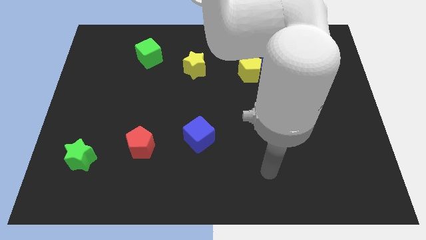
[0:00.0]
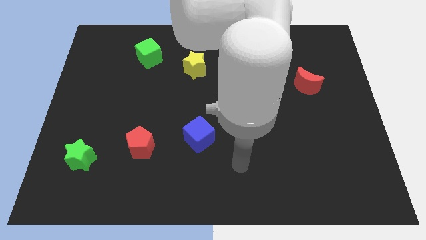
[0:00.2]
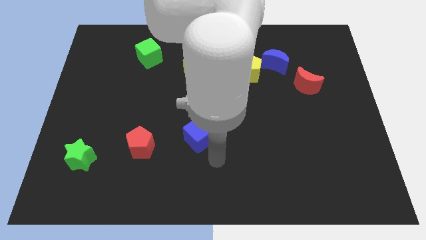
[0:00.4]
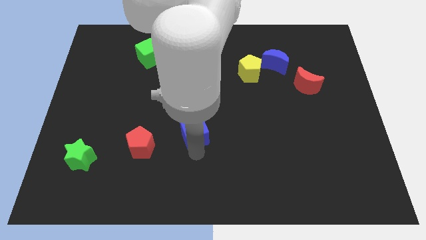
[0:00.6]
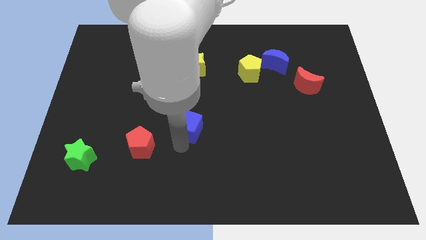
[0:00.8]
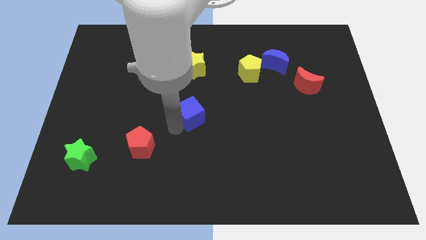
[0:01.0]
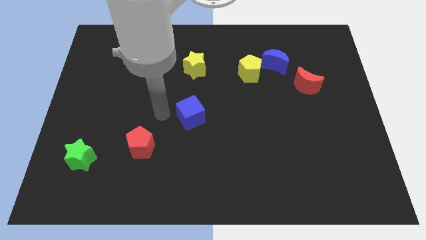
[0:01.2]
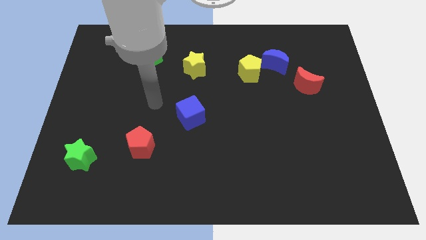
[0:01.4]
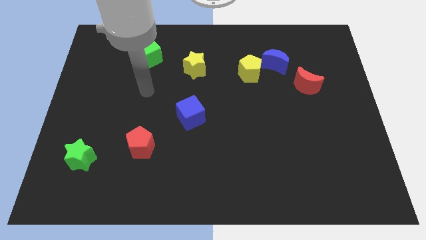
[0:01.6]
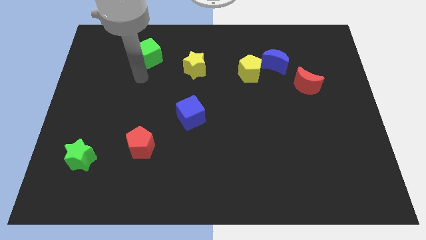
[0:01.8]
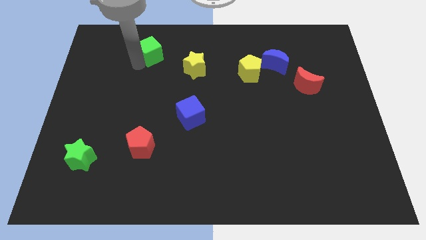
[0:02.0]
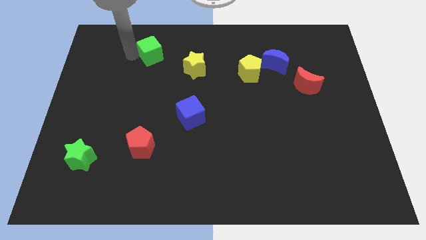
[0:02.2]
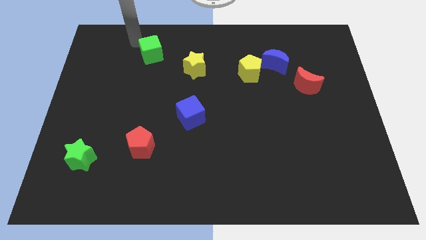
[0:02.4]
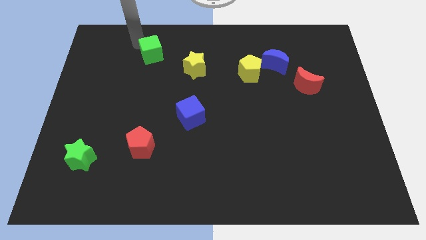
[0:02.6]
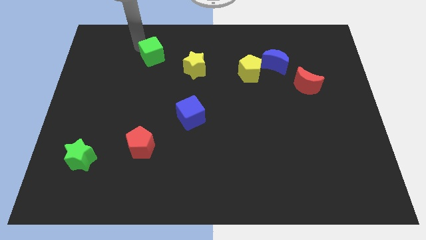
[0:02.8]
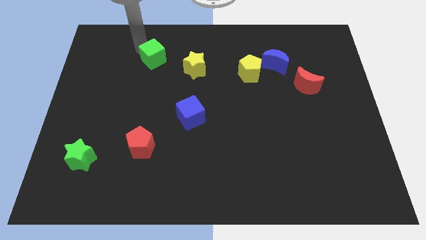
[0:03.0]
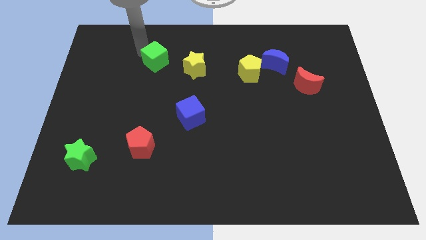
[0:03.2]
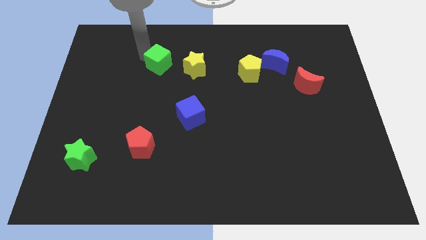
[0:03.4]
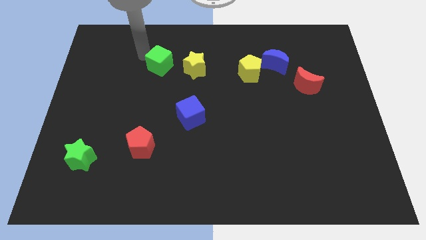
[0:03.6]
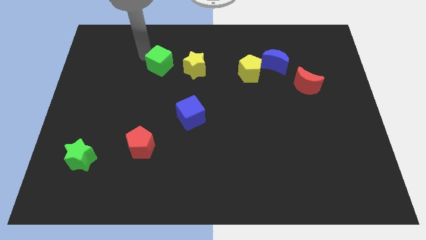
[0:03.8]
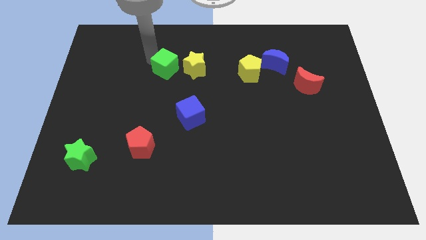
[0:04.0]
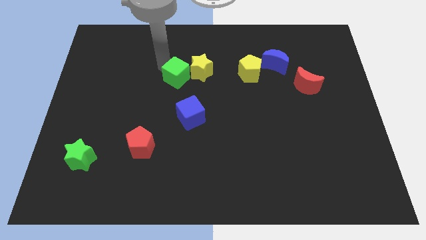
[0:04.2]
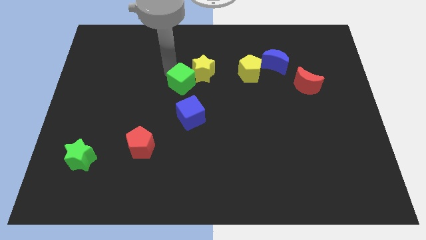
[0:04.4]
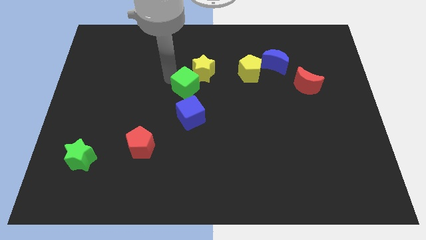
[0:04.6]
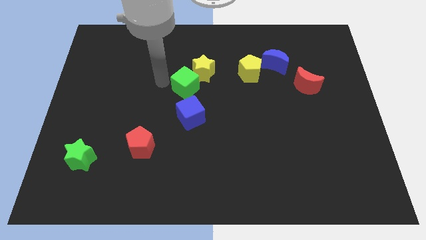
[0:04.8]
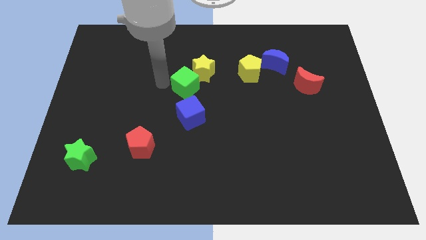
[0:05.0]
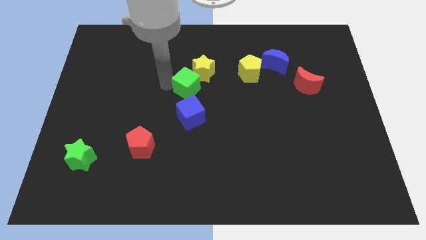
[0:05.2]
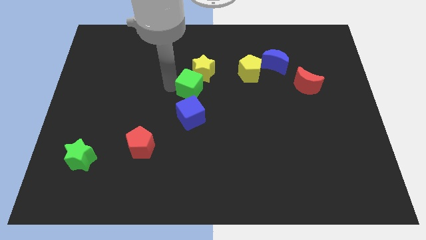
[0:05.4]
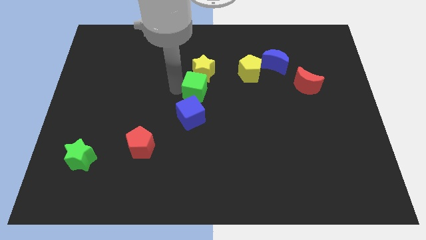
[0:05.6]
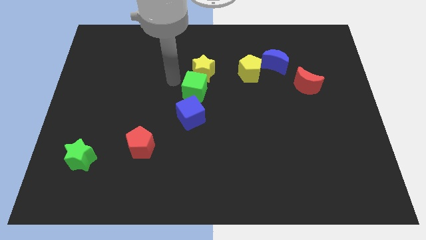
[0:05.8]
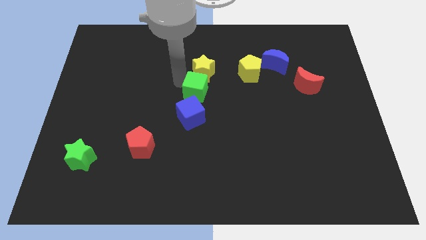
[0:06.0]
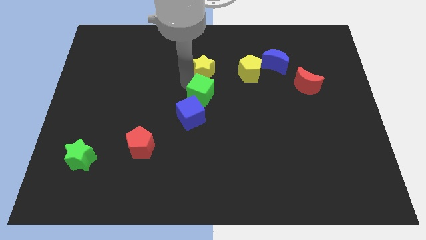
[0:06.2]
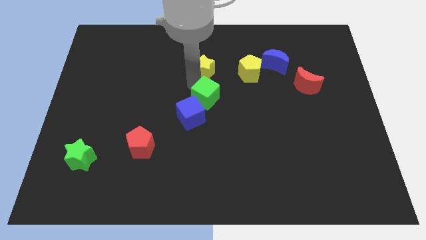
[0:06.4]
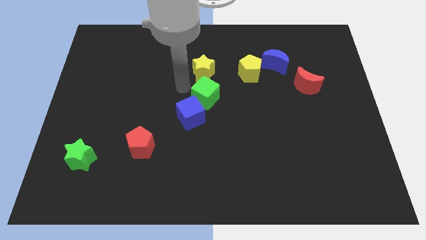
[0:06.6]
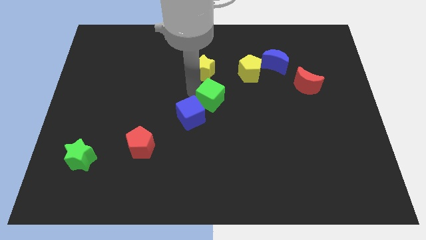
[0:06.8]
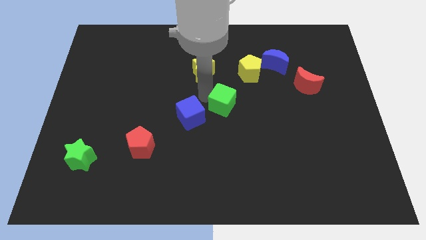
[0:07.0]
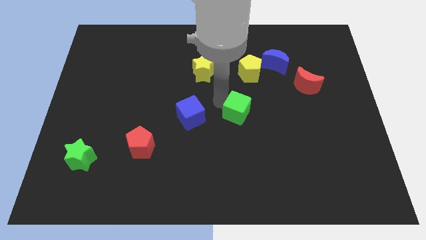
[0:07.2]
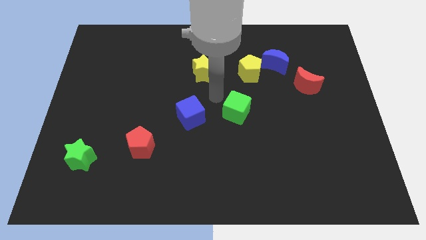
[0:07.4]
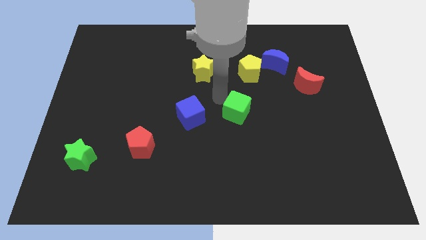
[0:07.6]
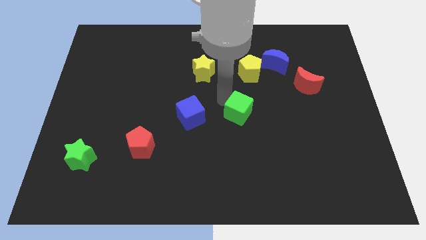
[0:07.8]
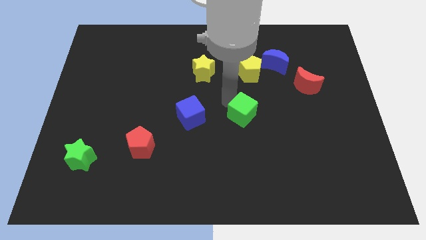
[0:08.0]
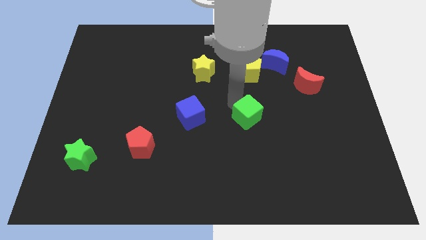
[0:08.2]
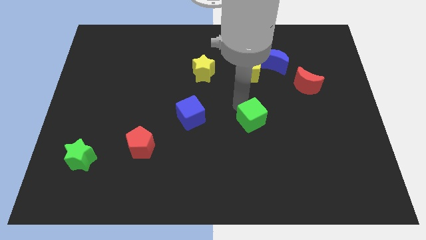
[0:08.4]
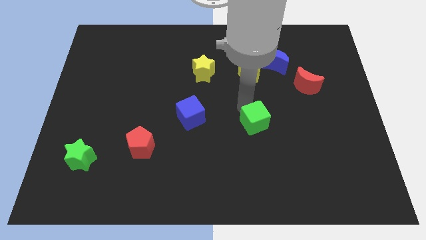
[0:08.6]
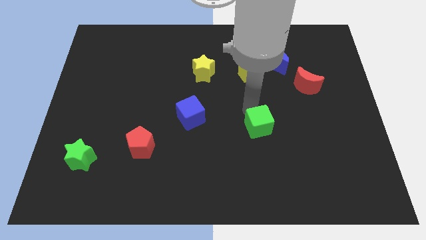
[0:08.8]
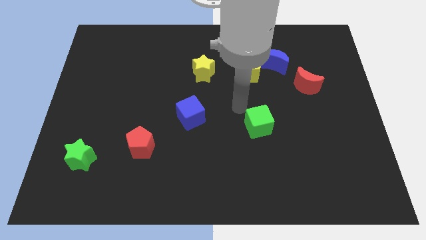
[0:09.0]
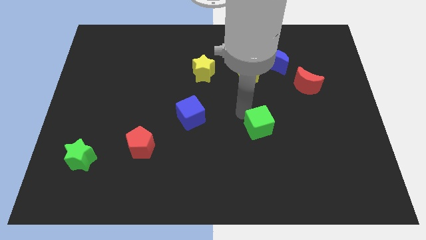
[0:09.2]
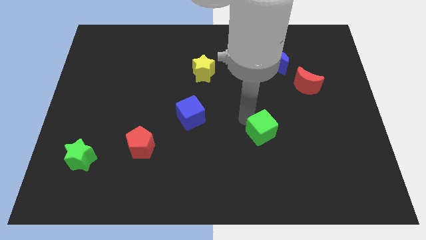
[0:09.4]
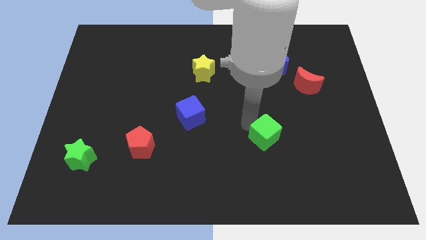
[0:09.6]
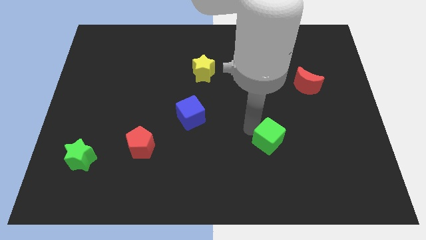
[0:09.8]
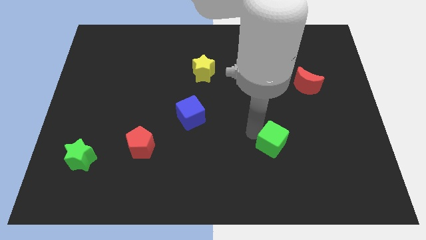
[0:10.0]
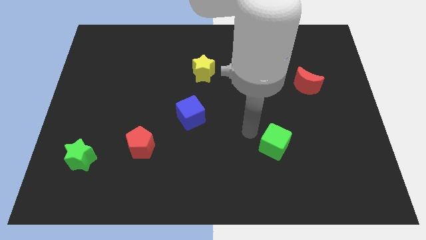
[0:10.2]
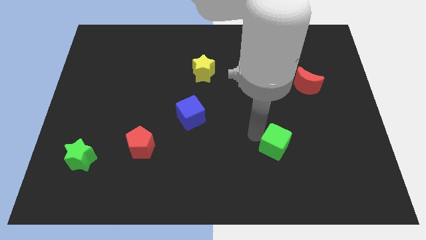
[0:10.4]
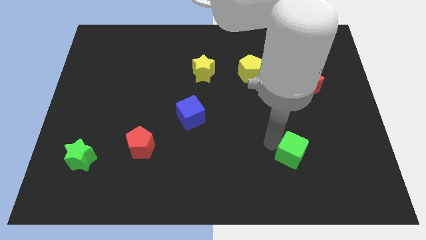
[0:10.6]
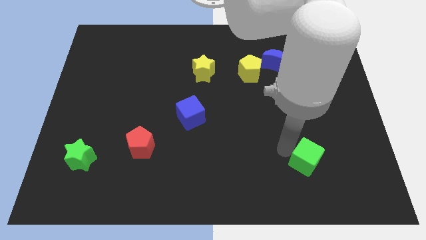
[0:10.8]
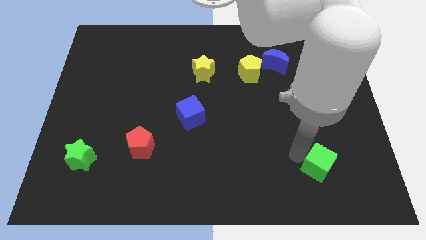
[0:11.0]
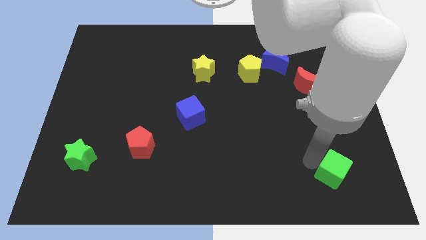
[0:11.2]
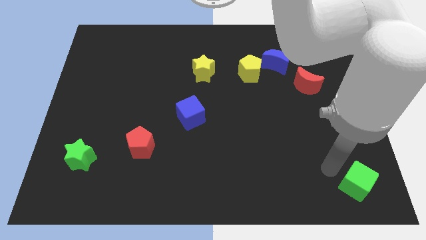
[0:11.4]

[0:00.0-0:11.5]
push the green cube to the lower right corner

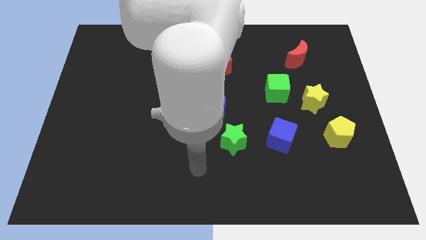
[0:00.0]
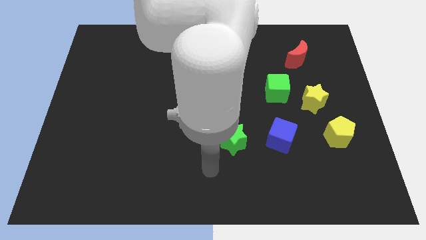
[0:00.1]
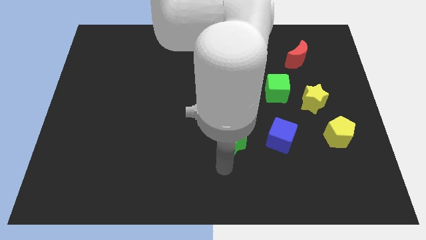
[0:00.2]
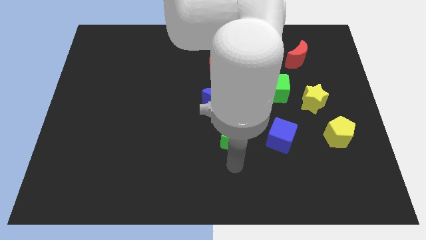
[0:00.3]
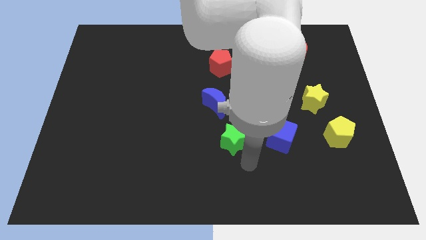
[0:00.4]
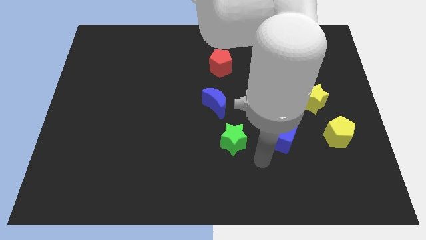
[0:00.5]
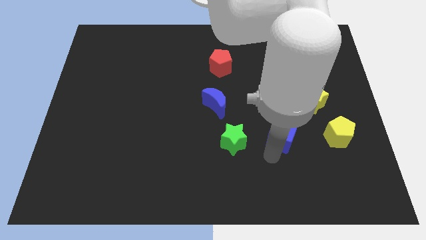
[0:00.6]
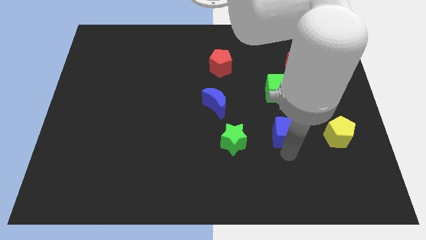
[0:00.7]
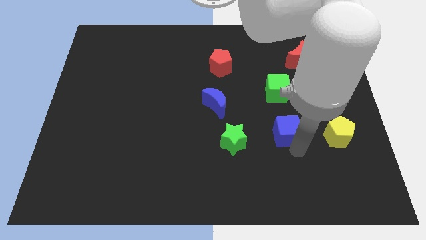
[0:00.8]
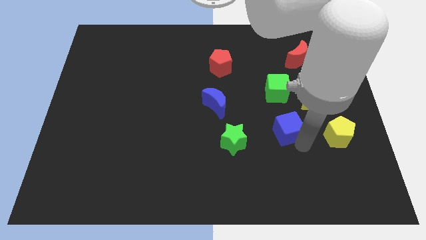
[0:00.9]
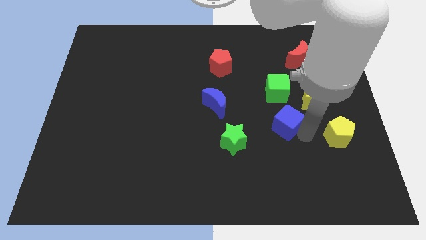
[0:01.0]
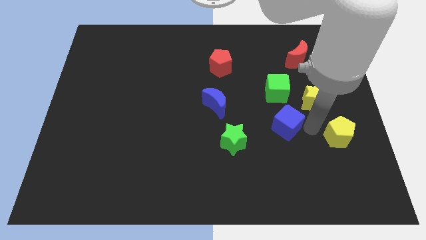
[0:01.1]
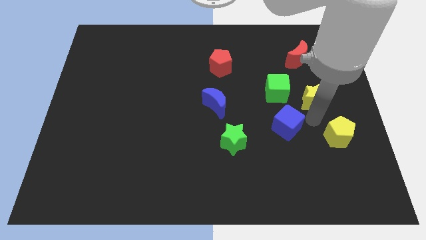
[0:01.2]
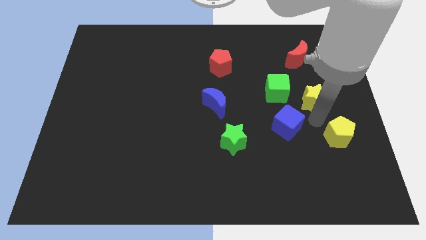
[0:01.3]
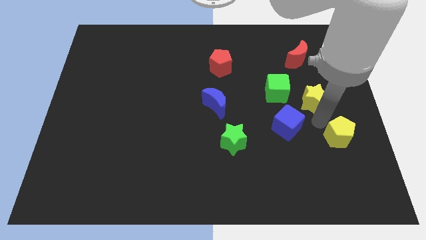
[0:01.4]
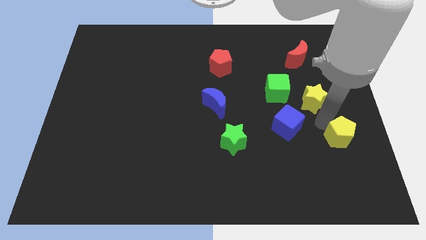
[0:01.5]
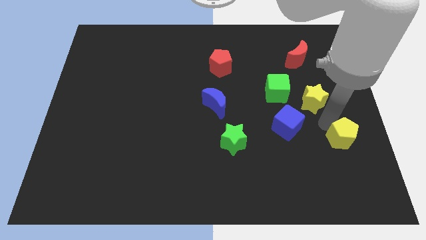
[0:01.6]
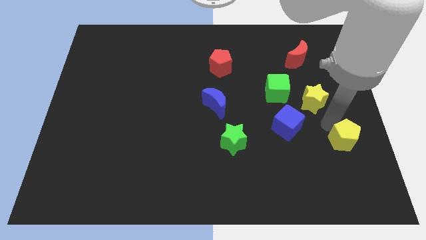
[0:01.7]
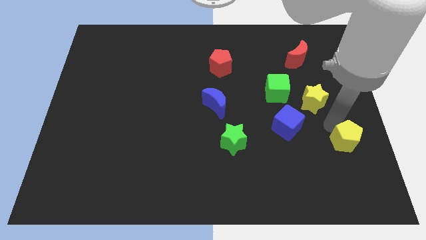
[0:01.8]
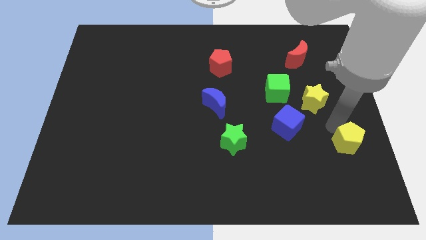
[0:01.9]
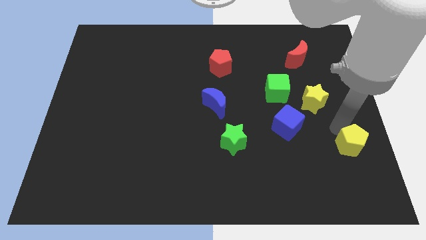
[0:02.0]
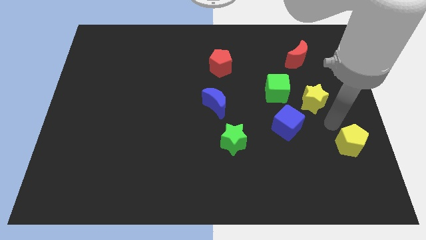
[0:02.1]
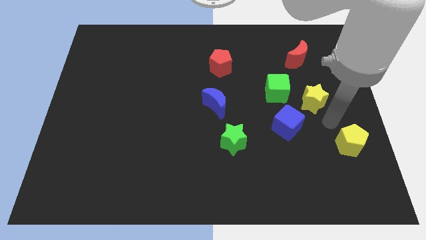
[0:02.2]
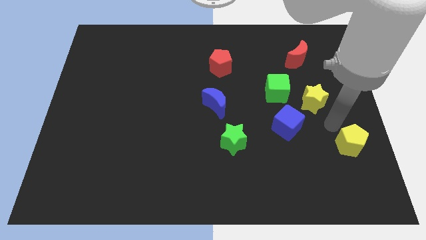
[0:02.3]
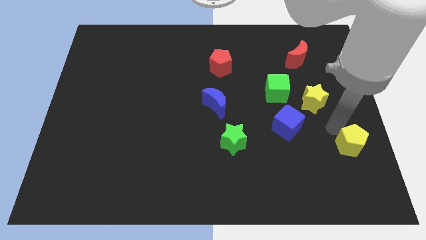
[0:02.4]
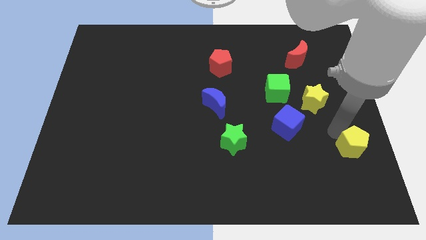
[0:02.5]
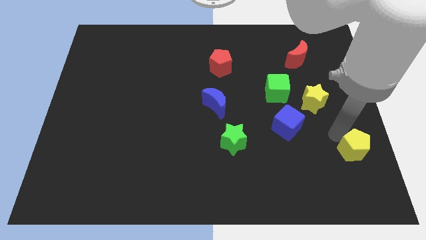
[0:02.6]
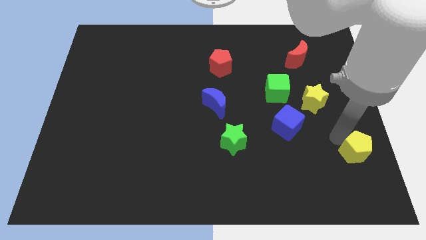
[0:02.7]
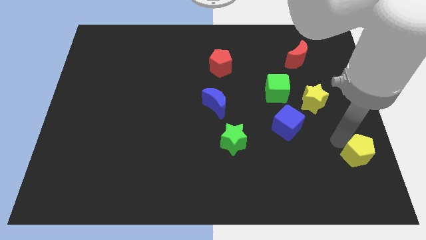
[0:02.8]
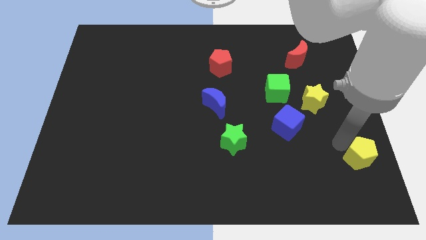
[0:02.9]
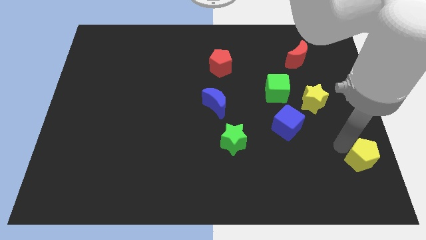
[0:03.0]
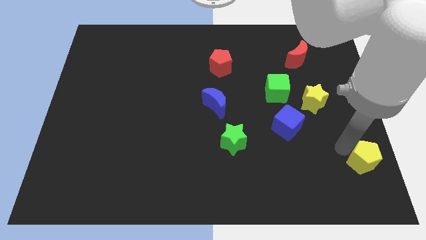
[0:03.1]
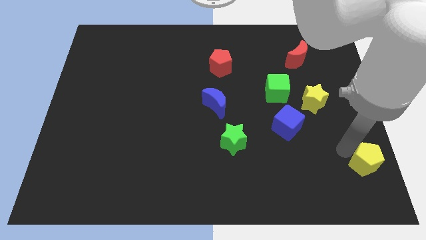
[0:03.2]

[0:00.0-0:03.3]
slide the yellow pentagon to the bottom right
